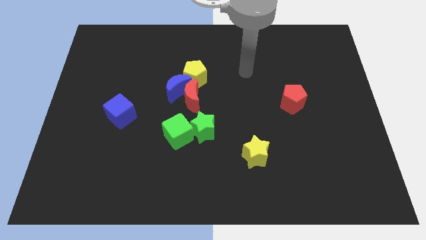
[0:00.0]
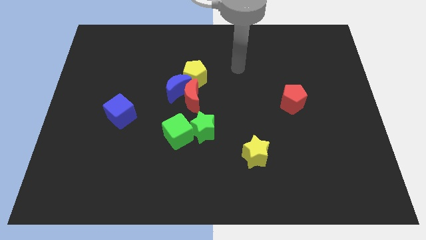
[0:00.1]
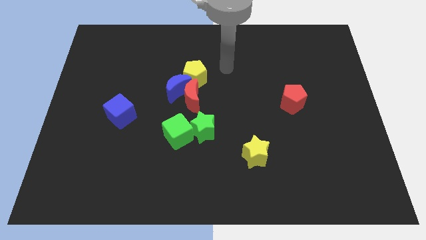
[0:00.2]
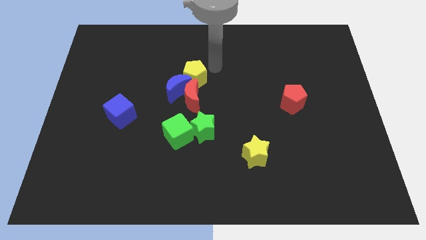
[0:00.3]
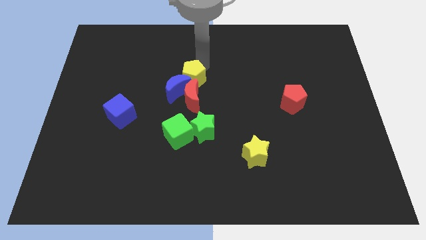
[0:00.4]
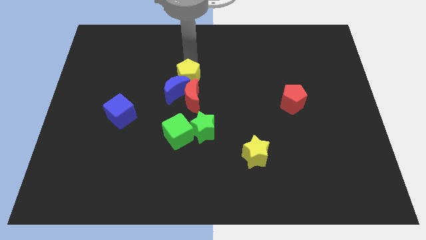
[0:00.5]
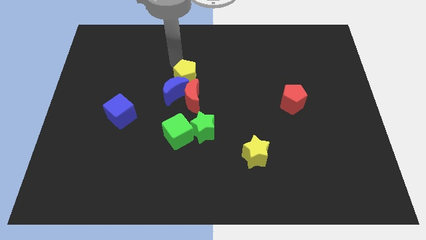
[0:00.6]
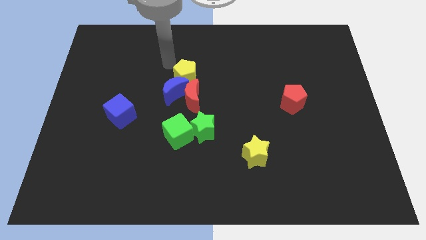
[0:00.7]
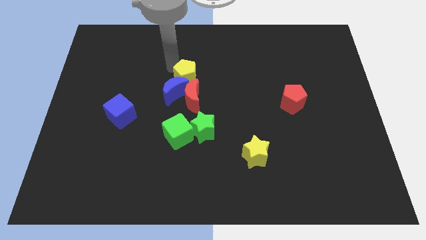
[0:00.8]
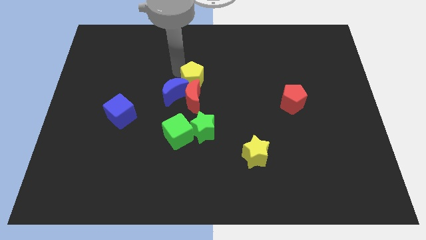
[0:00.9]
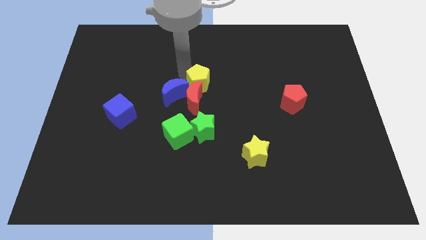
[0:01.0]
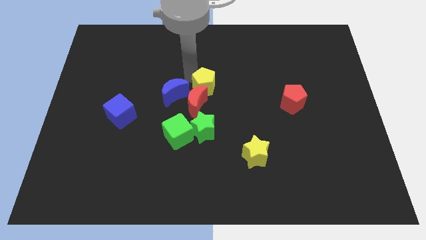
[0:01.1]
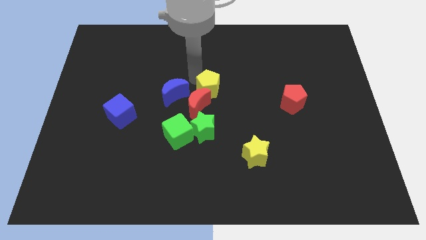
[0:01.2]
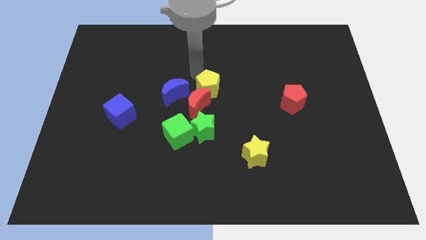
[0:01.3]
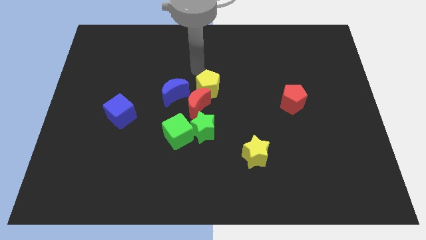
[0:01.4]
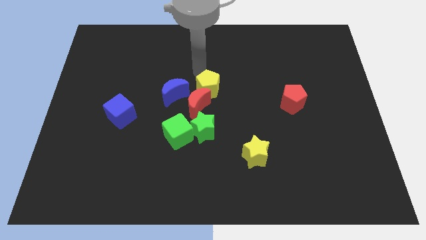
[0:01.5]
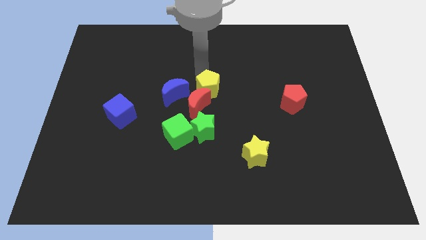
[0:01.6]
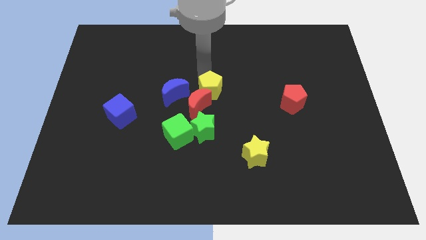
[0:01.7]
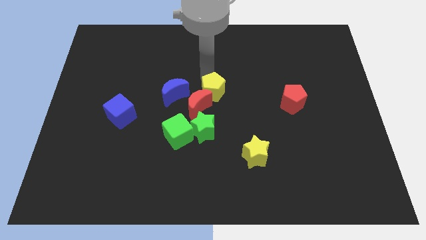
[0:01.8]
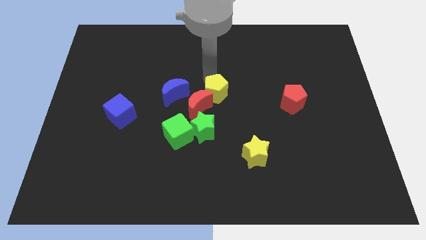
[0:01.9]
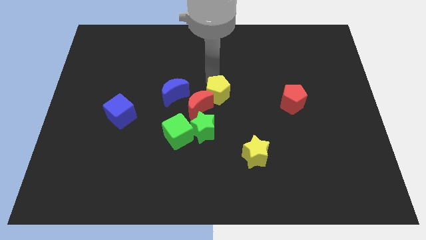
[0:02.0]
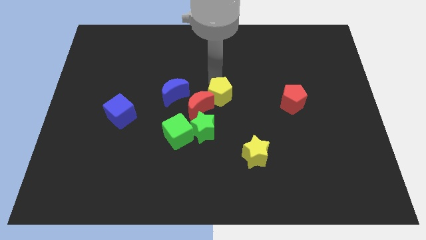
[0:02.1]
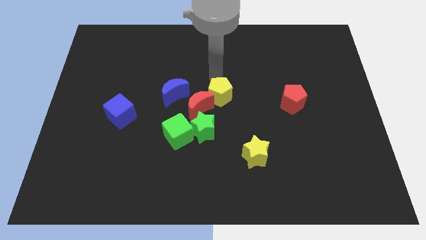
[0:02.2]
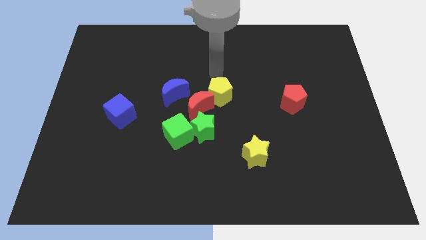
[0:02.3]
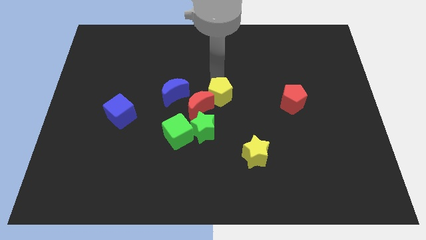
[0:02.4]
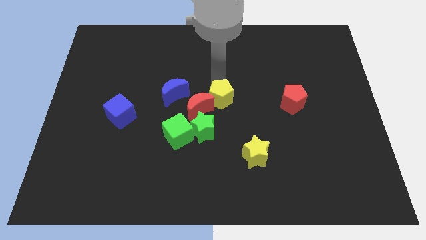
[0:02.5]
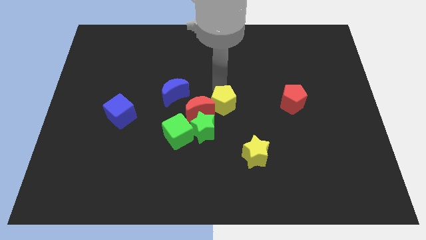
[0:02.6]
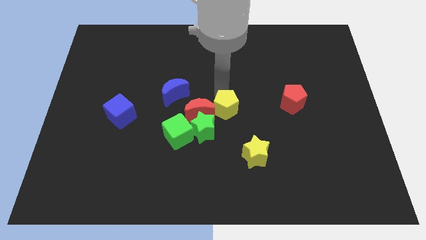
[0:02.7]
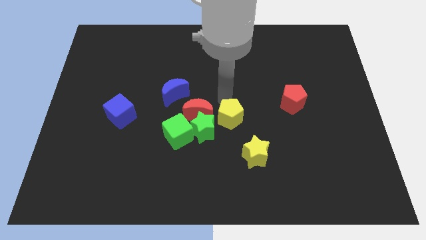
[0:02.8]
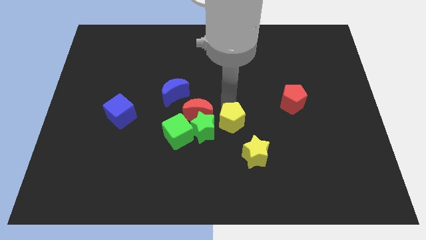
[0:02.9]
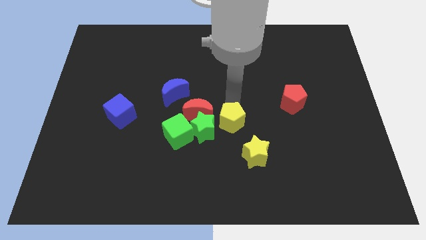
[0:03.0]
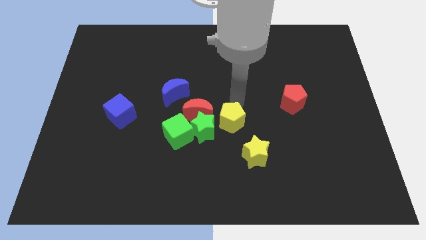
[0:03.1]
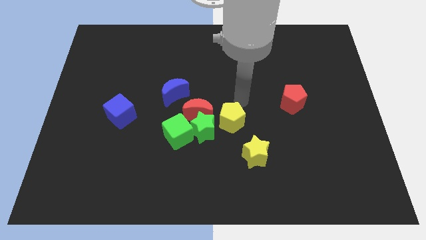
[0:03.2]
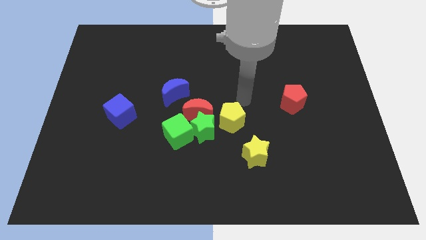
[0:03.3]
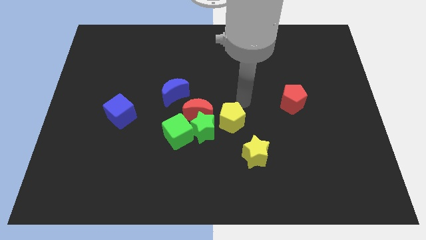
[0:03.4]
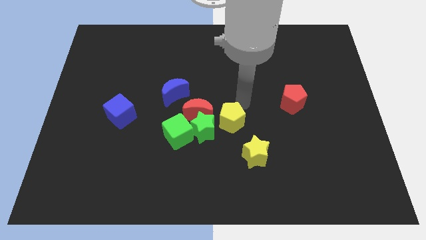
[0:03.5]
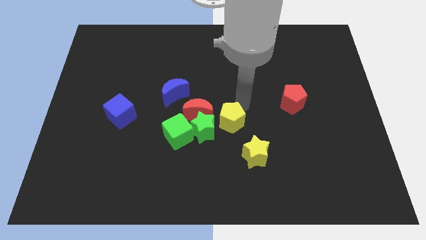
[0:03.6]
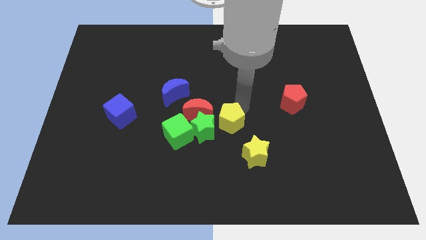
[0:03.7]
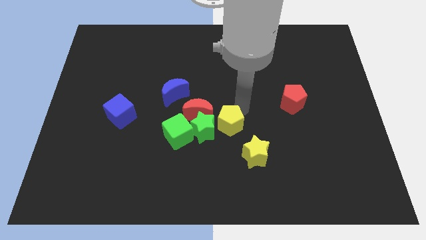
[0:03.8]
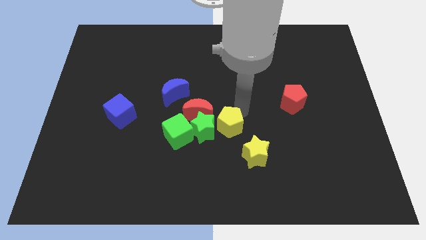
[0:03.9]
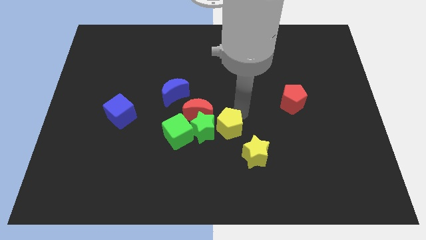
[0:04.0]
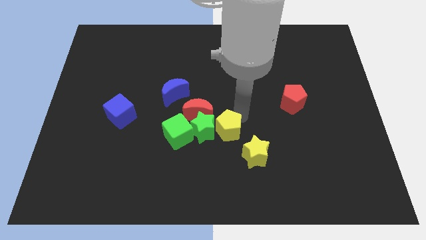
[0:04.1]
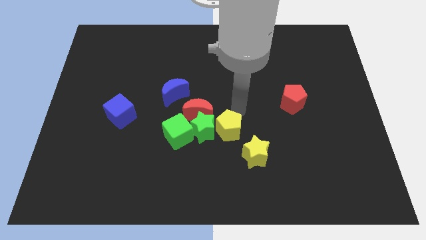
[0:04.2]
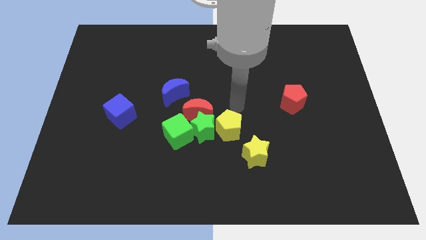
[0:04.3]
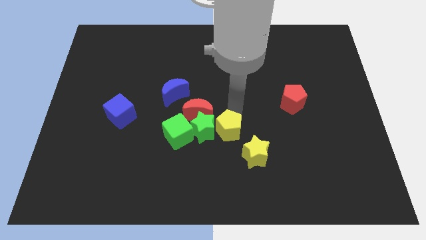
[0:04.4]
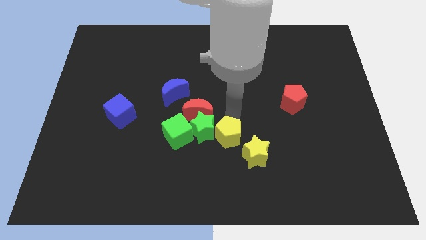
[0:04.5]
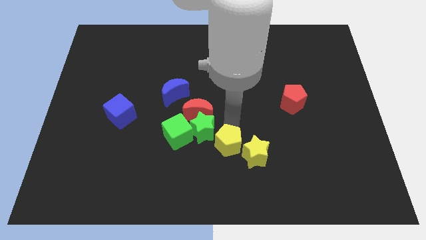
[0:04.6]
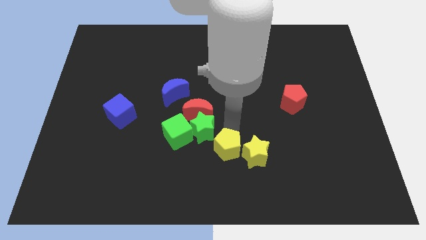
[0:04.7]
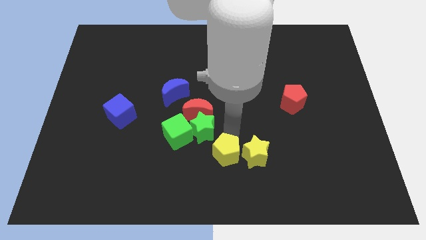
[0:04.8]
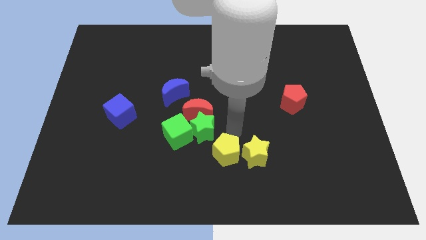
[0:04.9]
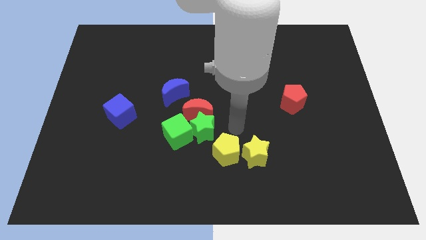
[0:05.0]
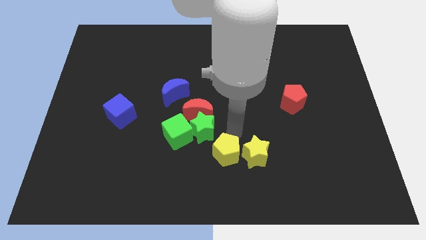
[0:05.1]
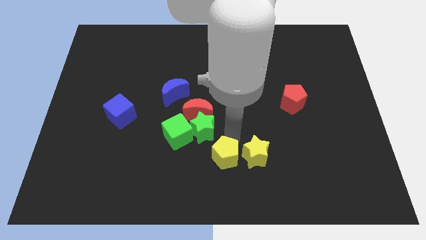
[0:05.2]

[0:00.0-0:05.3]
move the yellow pentagon to the bottom
